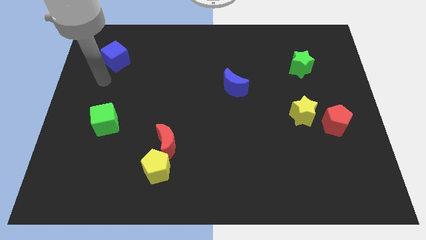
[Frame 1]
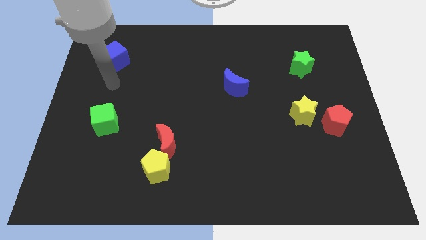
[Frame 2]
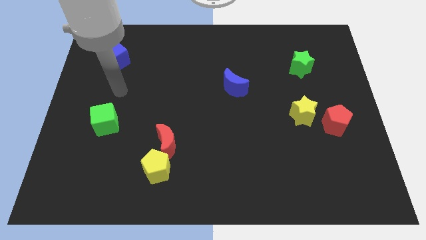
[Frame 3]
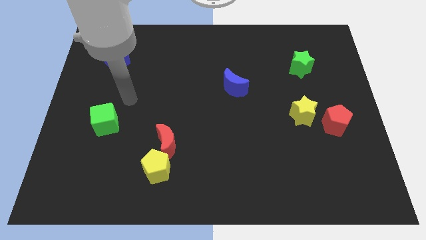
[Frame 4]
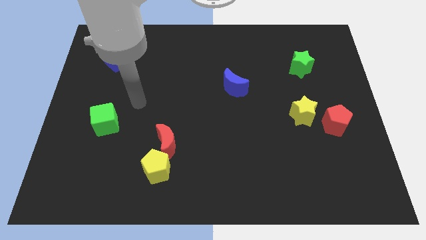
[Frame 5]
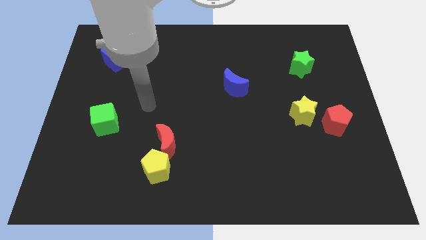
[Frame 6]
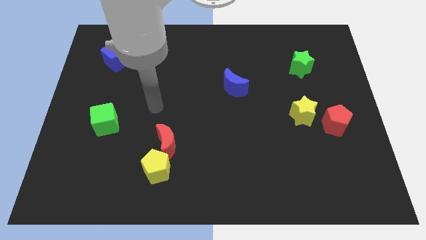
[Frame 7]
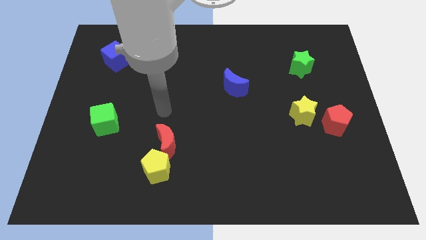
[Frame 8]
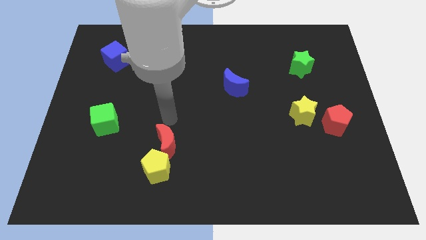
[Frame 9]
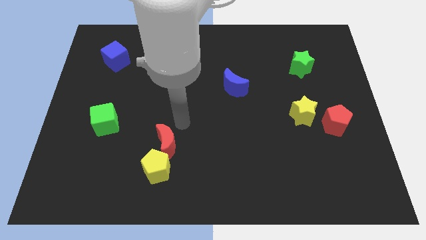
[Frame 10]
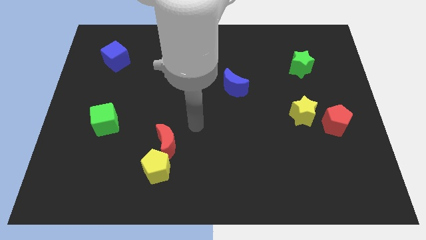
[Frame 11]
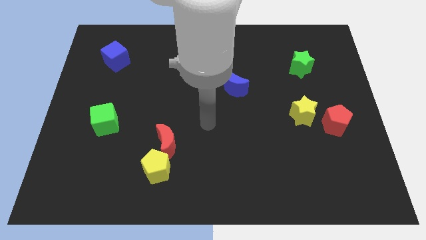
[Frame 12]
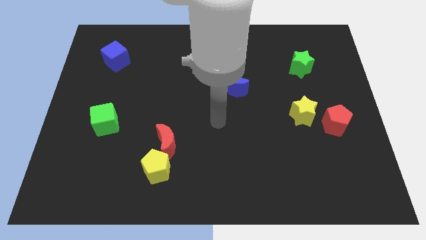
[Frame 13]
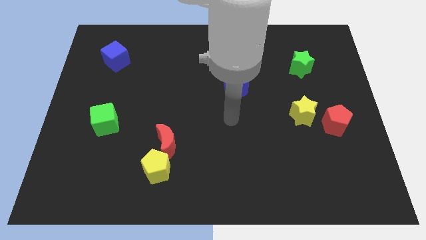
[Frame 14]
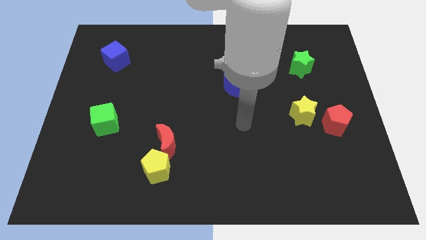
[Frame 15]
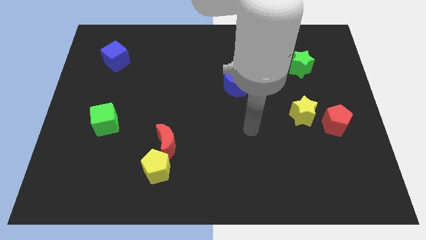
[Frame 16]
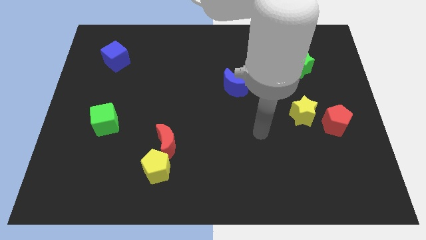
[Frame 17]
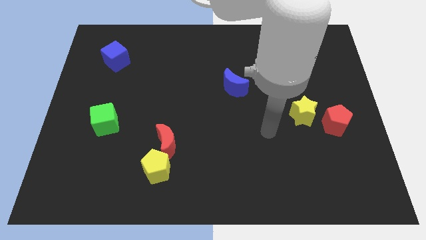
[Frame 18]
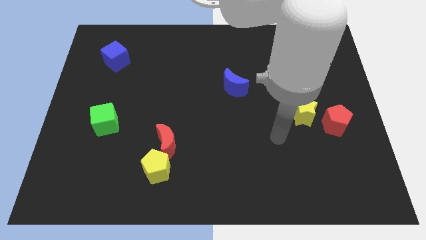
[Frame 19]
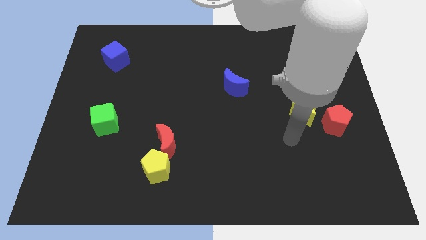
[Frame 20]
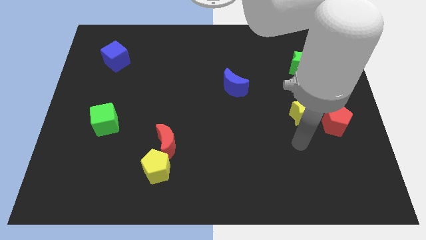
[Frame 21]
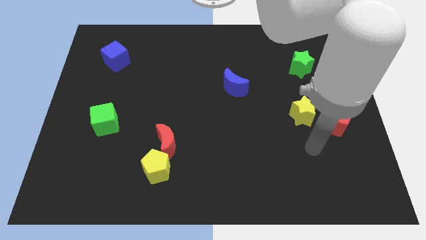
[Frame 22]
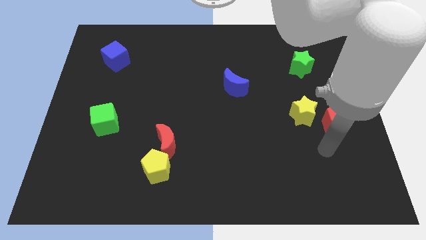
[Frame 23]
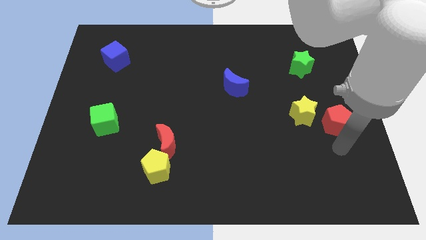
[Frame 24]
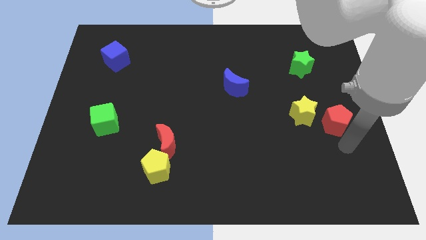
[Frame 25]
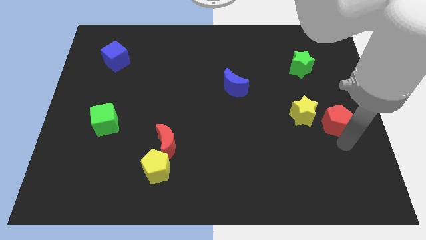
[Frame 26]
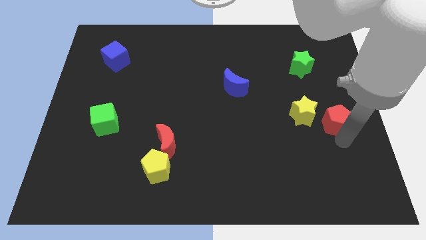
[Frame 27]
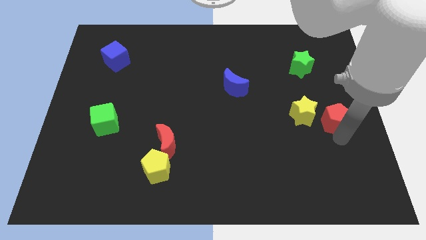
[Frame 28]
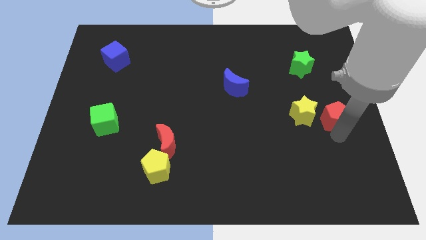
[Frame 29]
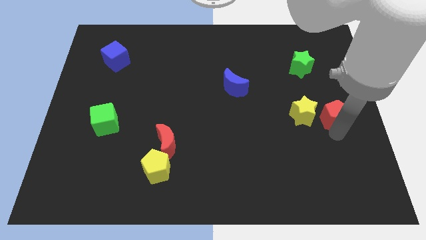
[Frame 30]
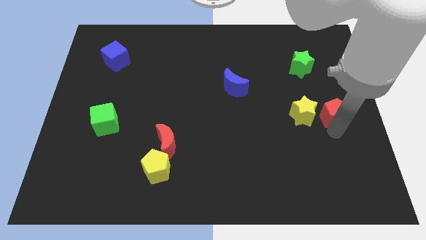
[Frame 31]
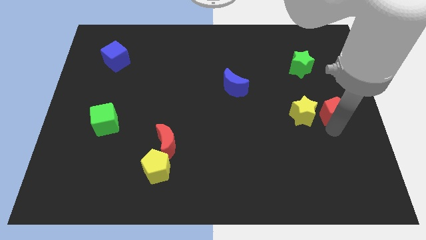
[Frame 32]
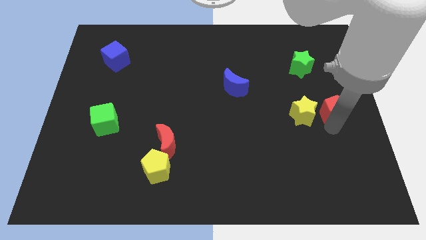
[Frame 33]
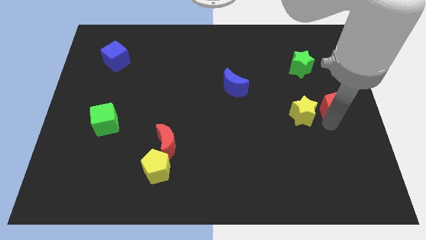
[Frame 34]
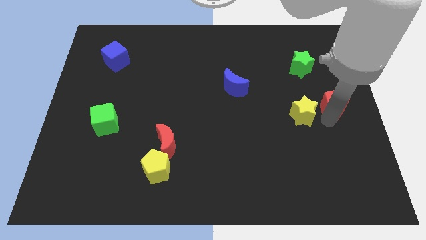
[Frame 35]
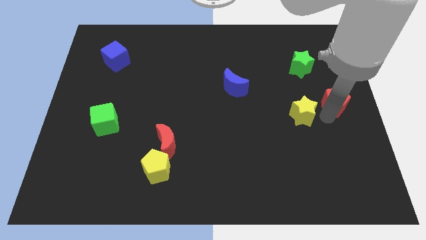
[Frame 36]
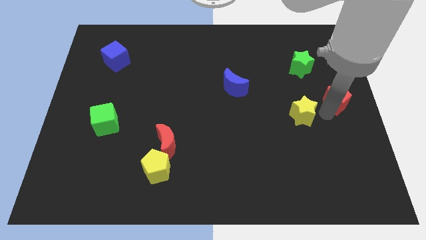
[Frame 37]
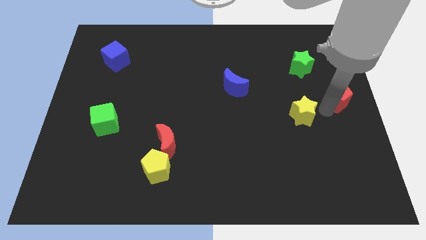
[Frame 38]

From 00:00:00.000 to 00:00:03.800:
slide the red pentagon a bit up

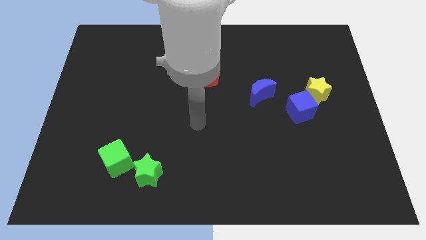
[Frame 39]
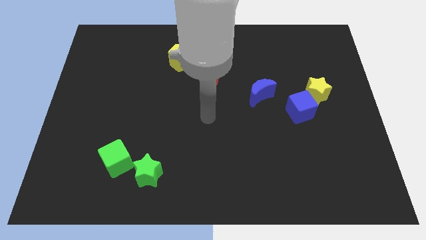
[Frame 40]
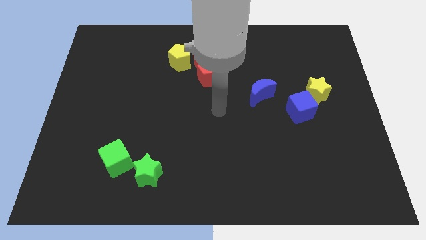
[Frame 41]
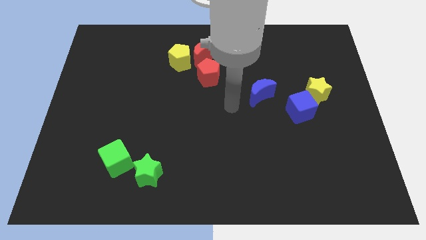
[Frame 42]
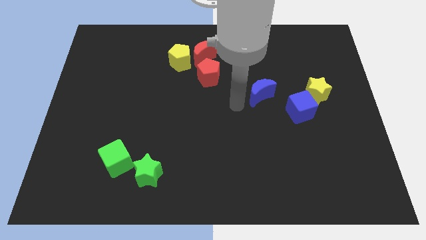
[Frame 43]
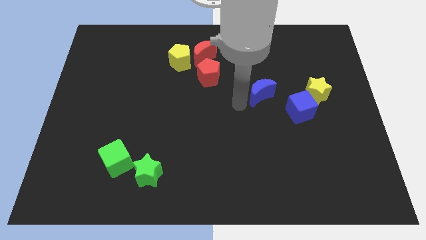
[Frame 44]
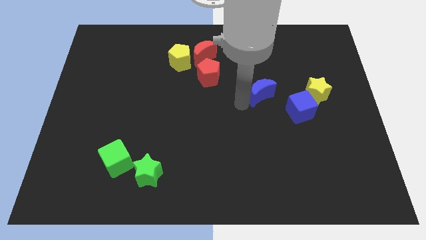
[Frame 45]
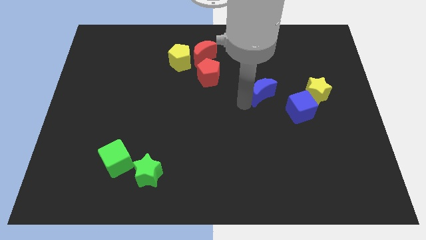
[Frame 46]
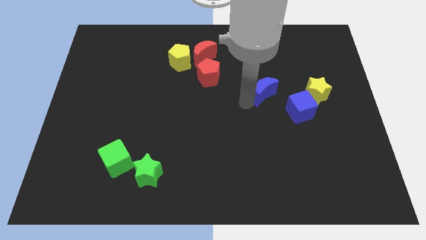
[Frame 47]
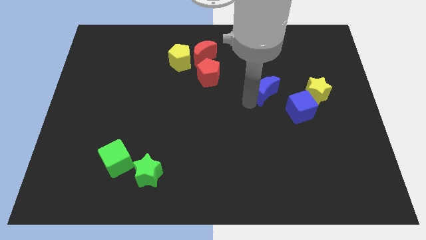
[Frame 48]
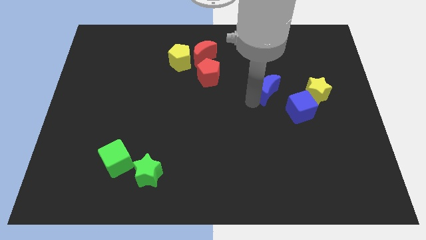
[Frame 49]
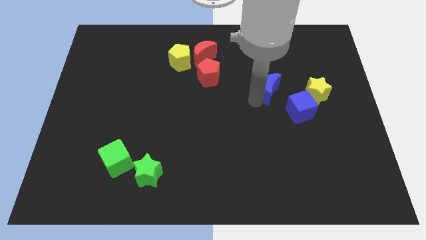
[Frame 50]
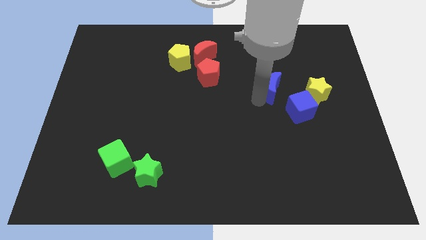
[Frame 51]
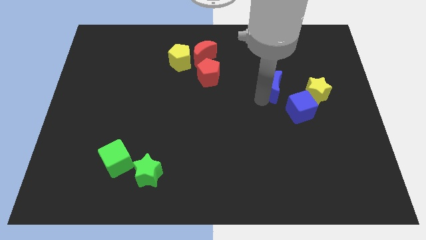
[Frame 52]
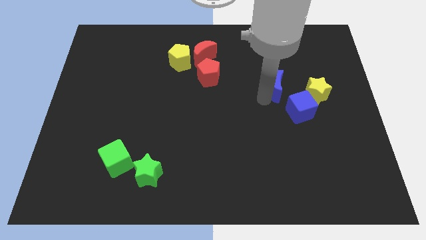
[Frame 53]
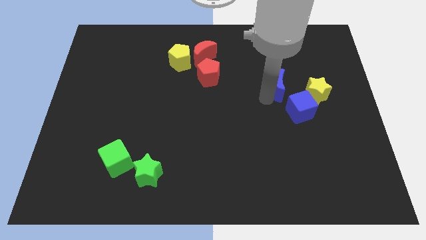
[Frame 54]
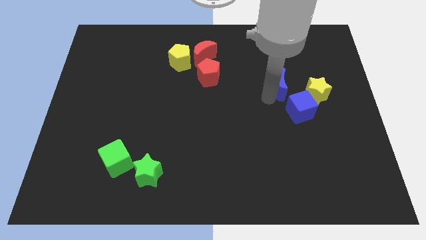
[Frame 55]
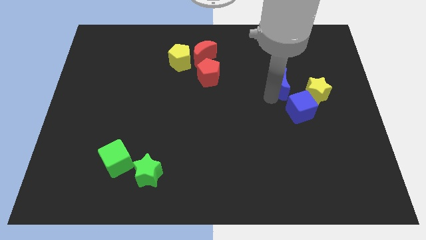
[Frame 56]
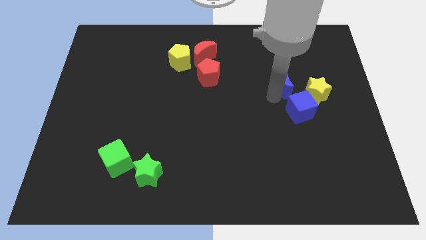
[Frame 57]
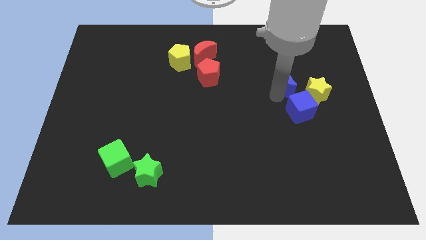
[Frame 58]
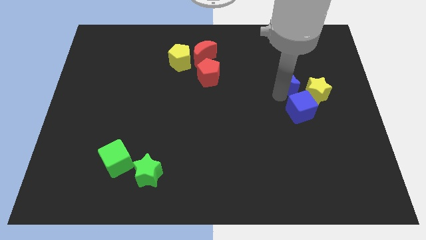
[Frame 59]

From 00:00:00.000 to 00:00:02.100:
move the blue moon up and then right a little bit

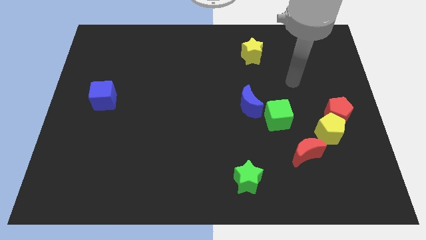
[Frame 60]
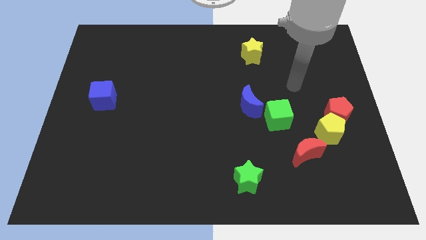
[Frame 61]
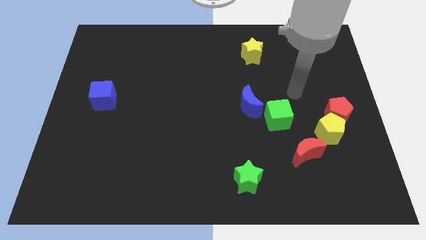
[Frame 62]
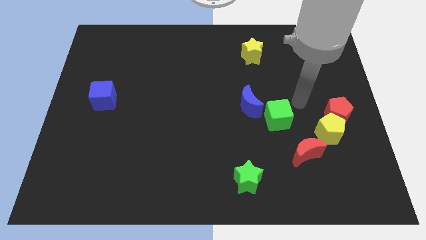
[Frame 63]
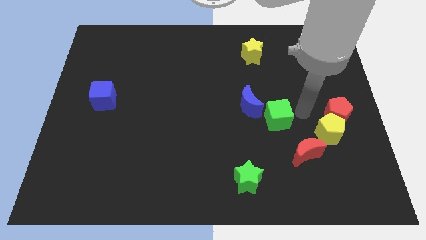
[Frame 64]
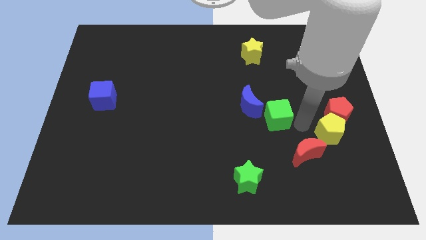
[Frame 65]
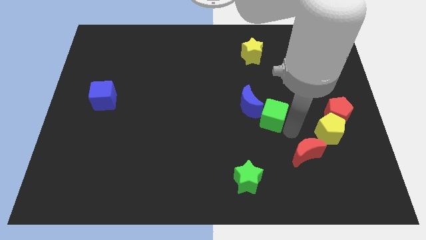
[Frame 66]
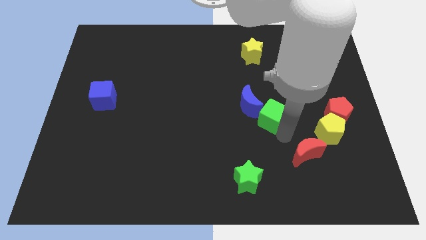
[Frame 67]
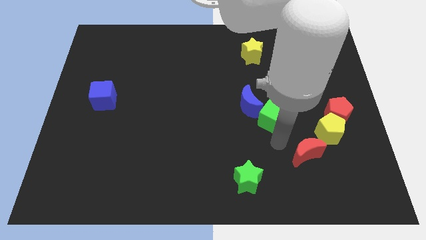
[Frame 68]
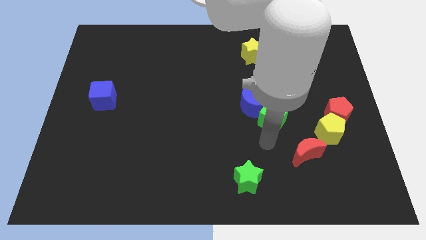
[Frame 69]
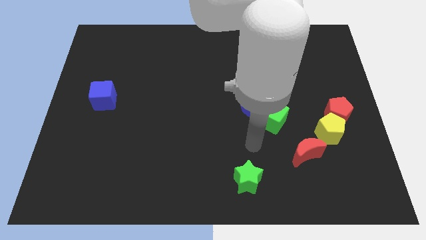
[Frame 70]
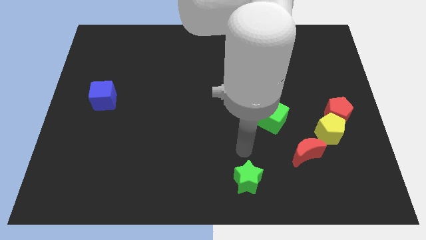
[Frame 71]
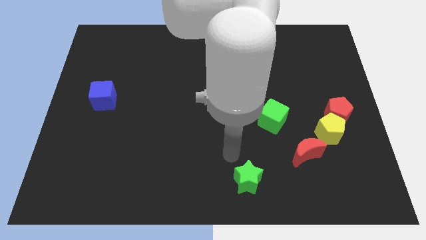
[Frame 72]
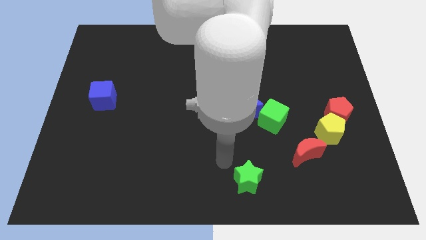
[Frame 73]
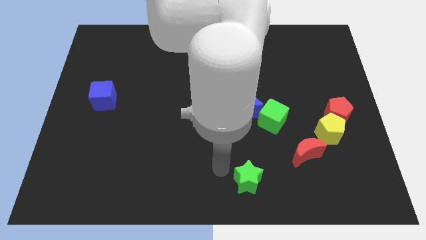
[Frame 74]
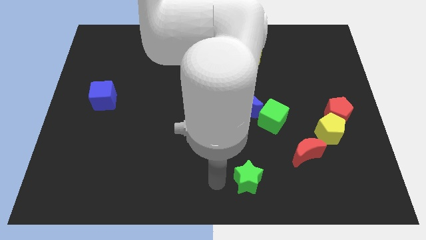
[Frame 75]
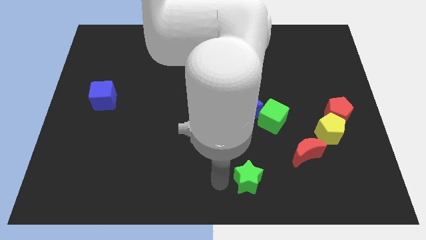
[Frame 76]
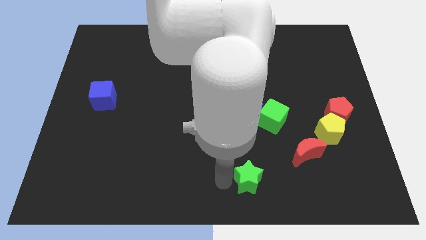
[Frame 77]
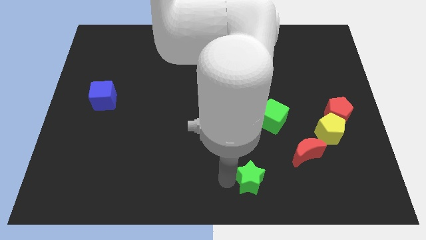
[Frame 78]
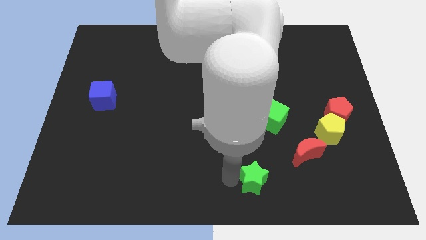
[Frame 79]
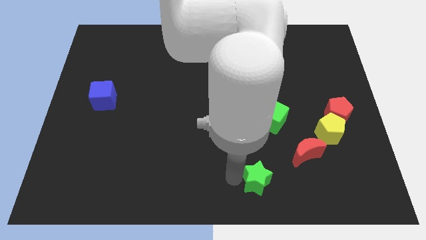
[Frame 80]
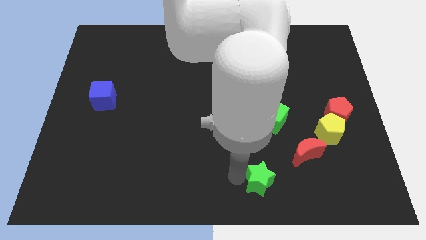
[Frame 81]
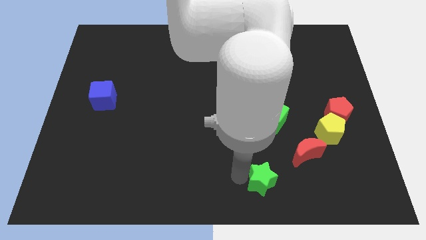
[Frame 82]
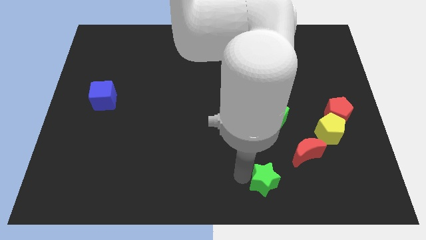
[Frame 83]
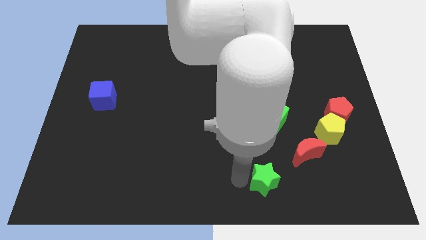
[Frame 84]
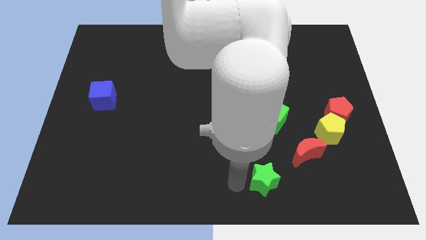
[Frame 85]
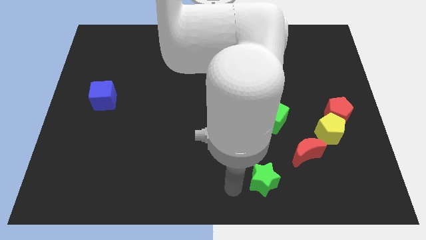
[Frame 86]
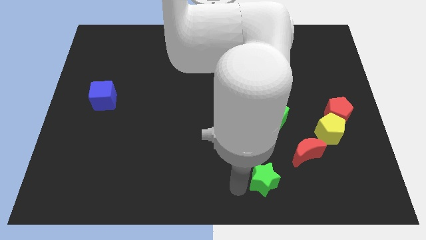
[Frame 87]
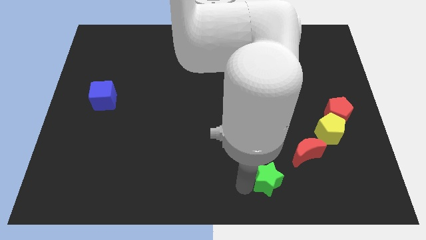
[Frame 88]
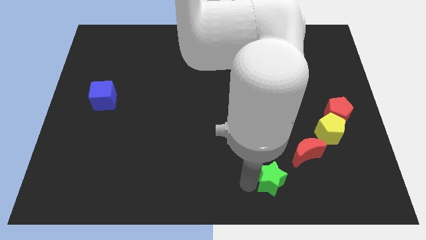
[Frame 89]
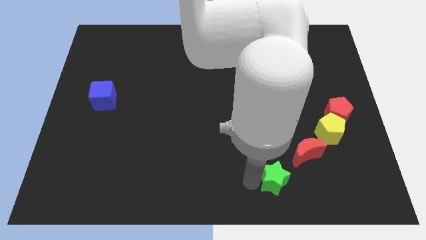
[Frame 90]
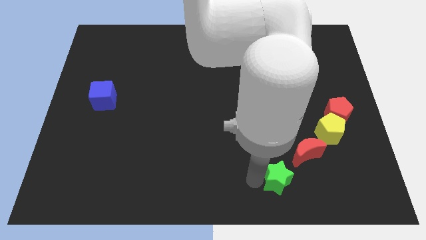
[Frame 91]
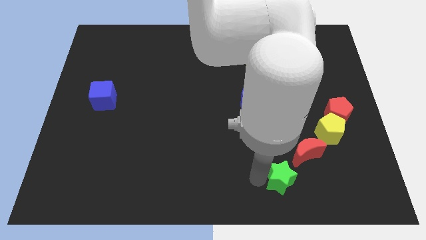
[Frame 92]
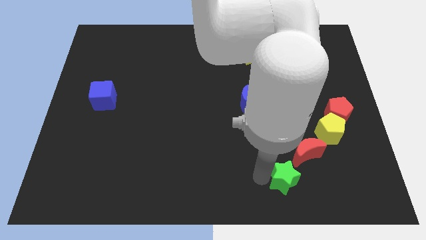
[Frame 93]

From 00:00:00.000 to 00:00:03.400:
move the green star right a bit
